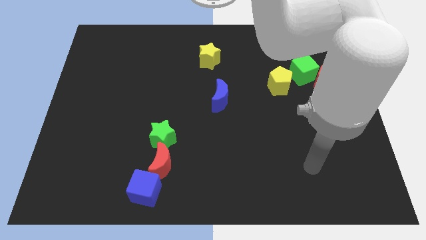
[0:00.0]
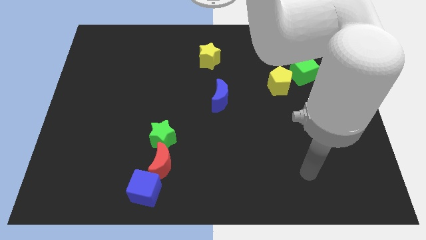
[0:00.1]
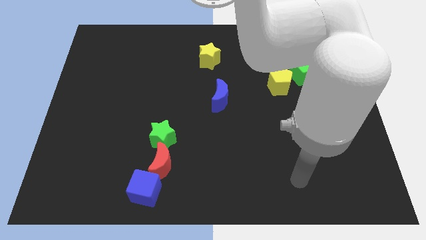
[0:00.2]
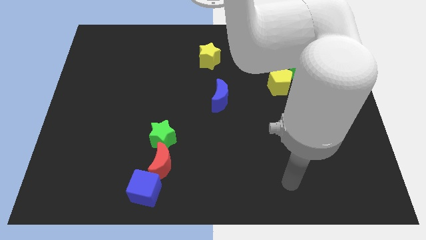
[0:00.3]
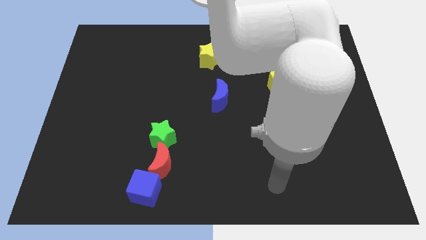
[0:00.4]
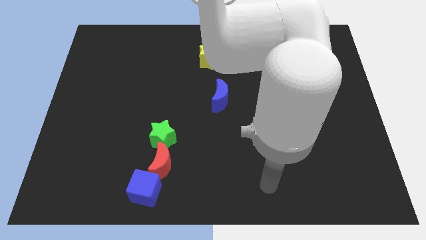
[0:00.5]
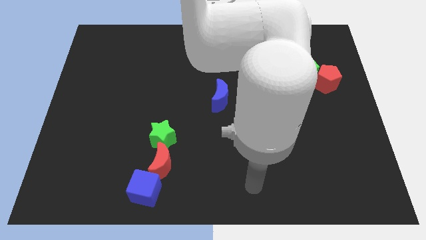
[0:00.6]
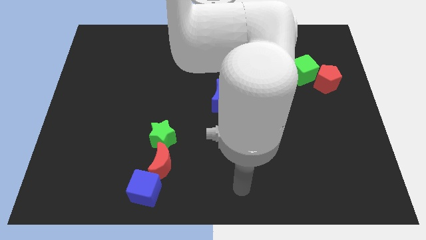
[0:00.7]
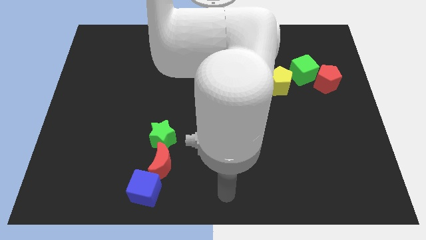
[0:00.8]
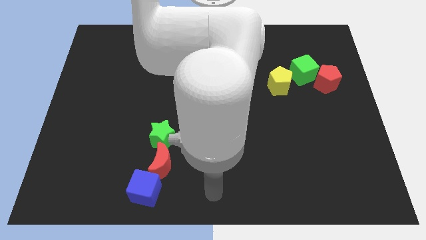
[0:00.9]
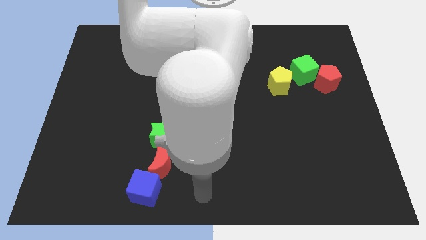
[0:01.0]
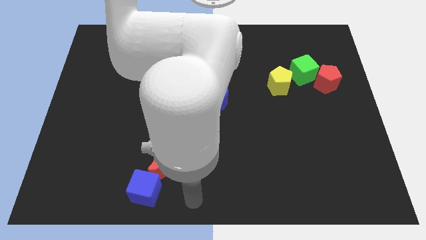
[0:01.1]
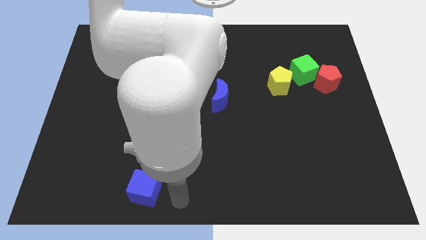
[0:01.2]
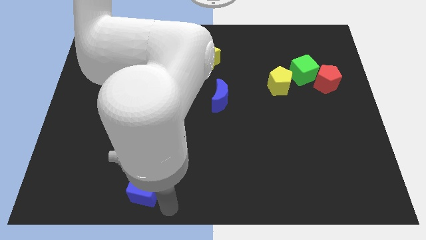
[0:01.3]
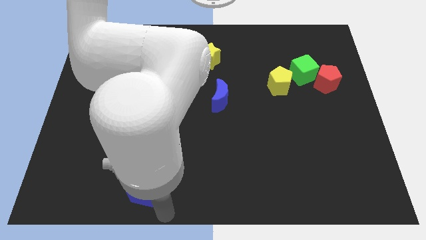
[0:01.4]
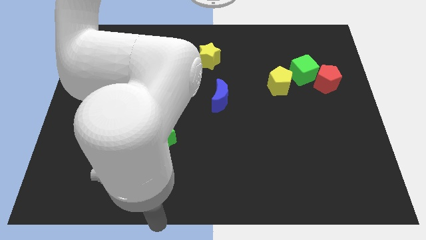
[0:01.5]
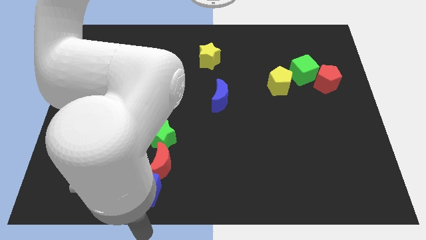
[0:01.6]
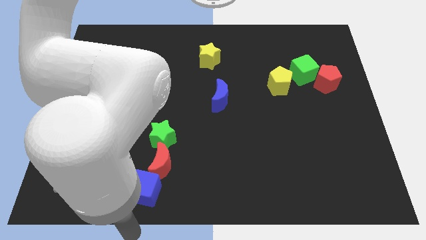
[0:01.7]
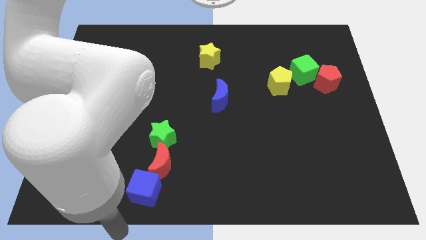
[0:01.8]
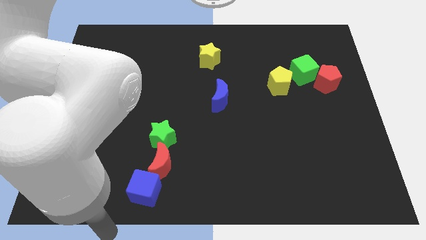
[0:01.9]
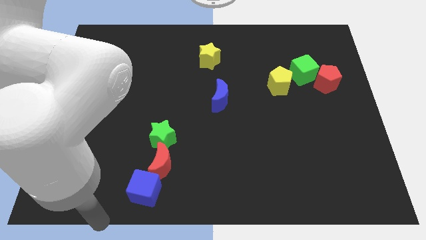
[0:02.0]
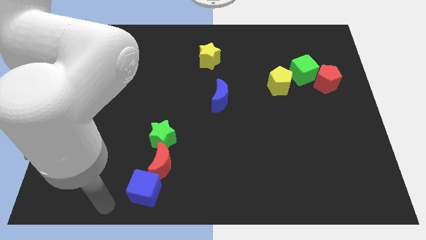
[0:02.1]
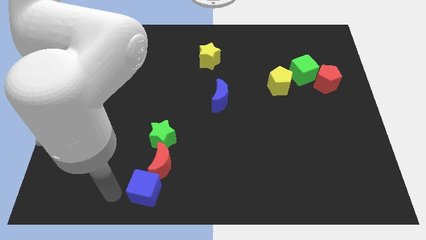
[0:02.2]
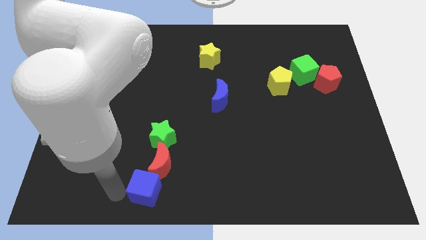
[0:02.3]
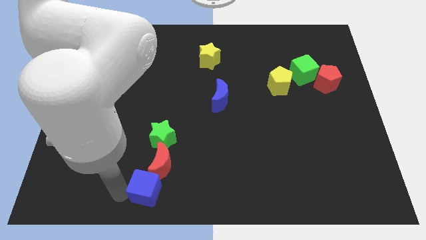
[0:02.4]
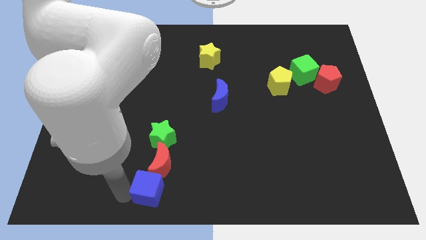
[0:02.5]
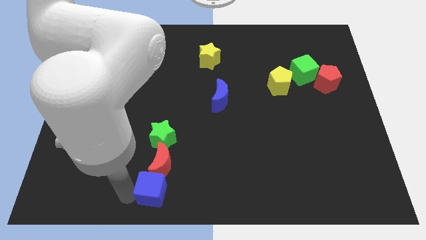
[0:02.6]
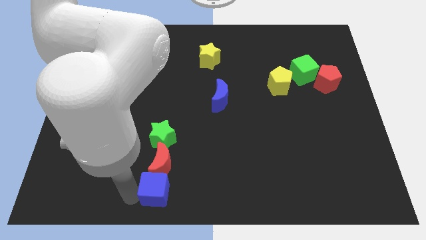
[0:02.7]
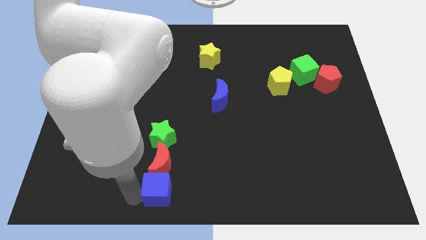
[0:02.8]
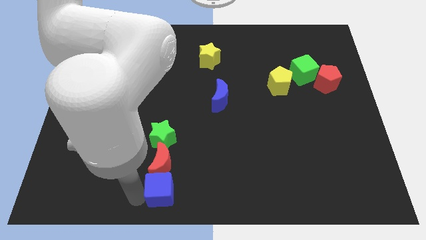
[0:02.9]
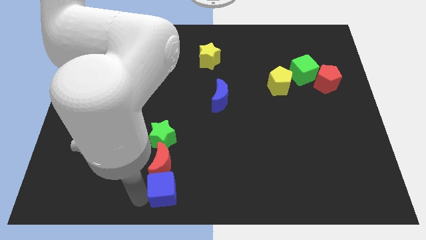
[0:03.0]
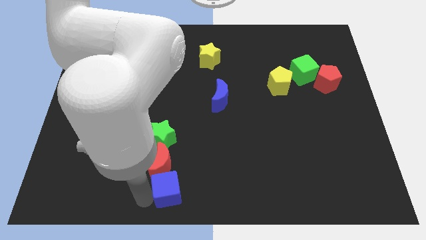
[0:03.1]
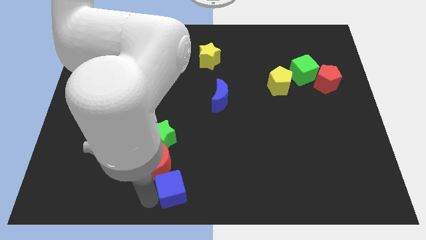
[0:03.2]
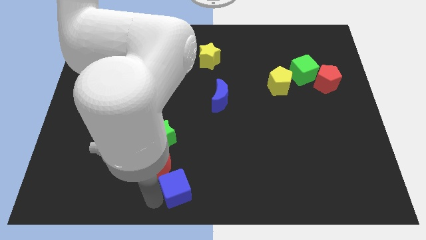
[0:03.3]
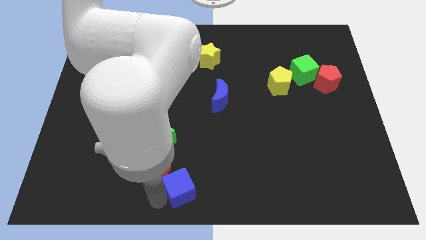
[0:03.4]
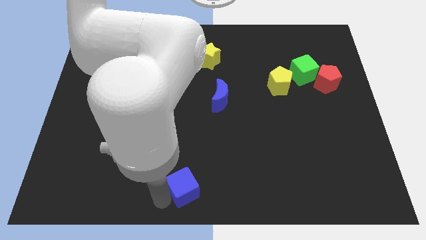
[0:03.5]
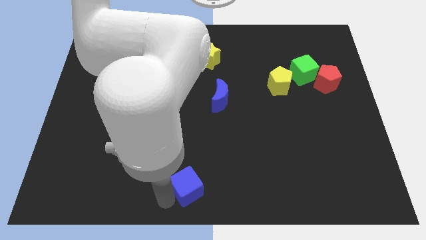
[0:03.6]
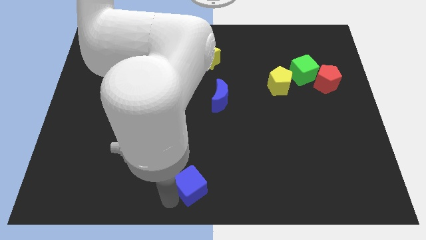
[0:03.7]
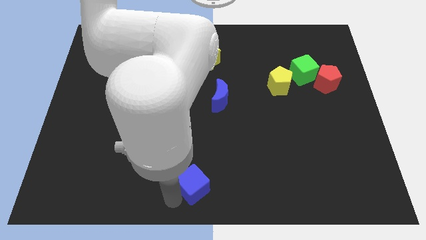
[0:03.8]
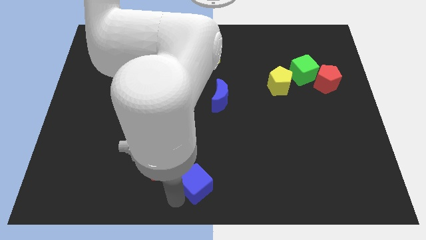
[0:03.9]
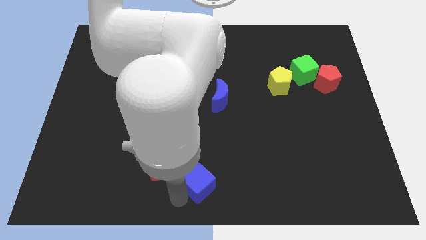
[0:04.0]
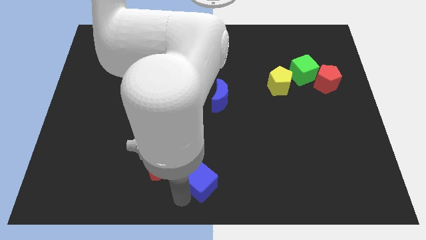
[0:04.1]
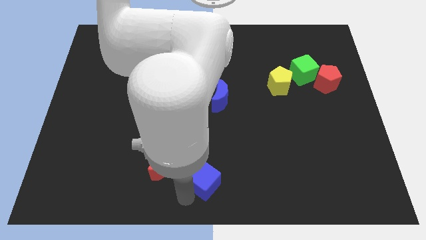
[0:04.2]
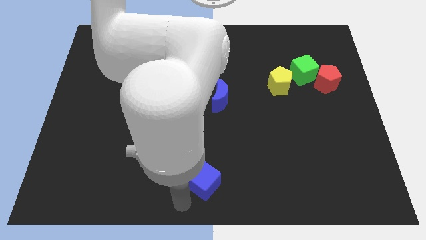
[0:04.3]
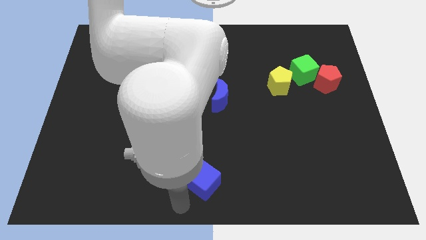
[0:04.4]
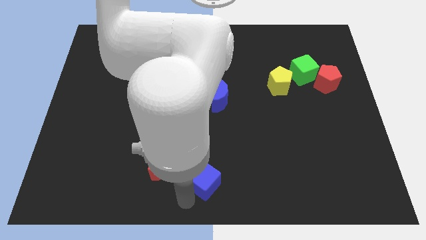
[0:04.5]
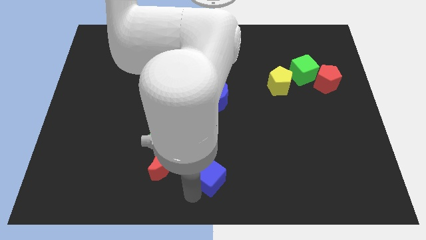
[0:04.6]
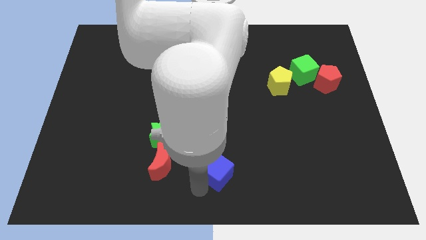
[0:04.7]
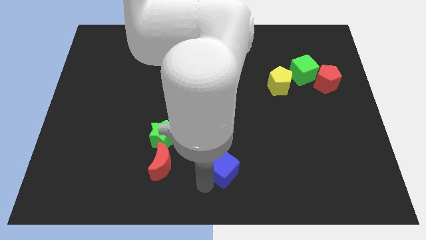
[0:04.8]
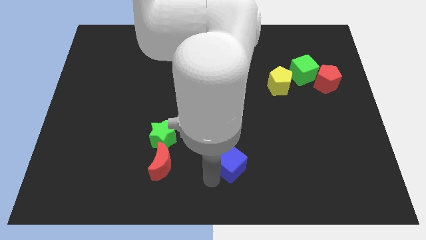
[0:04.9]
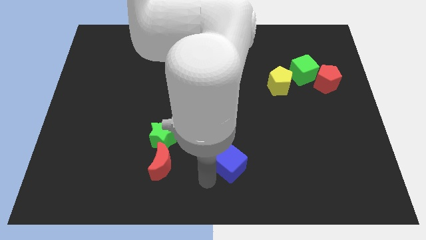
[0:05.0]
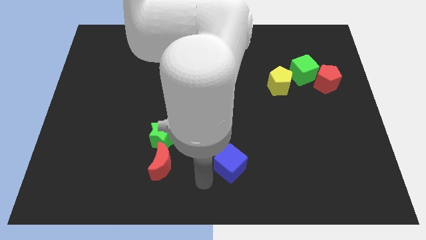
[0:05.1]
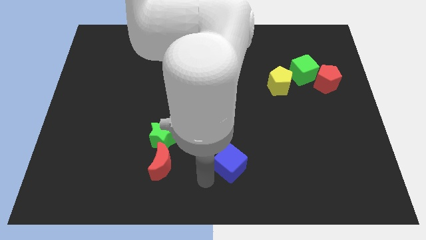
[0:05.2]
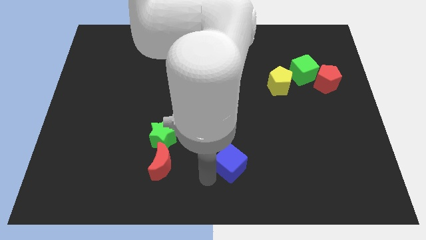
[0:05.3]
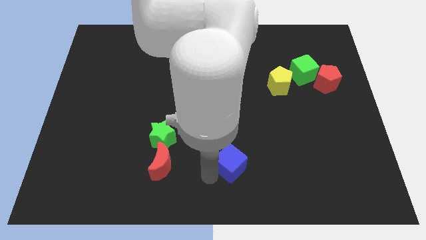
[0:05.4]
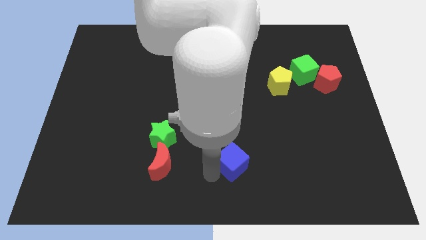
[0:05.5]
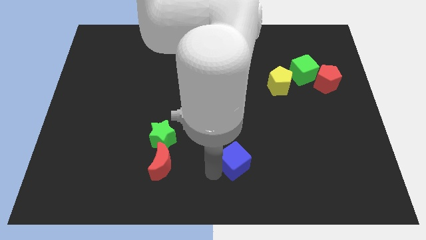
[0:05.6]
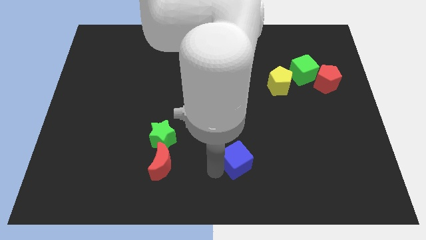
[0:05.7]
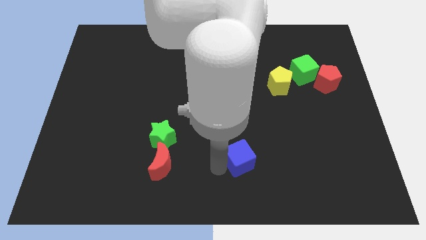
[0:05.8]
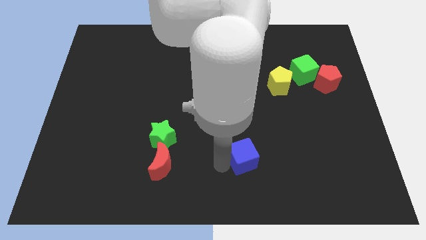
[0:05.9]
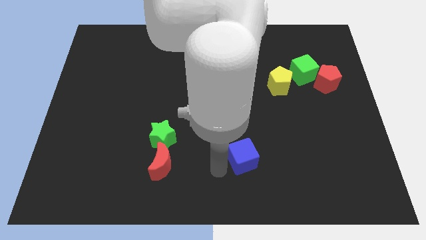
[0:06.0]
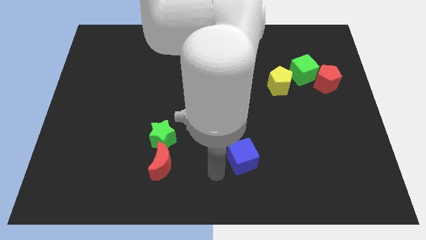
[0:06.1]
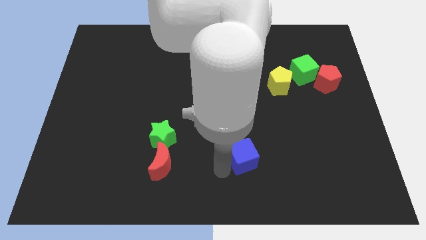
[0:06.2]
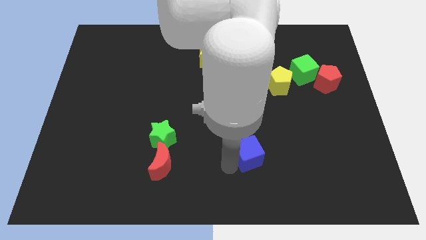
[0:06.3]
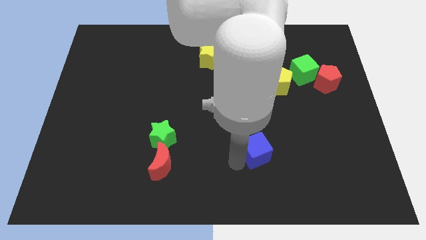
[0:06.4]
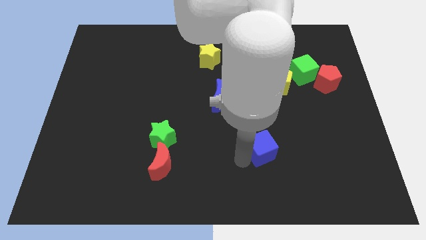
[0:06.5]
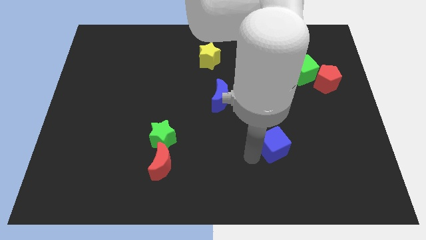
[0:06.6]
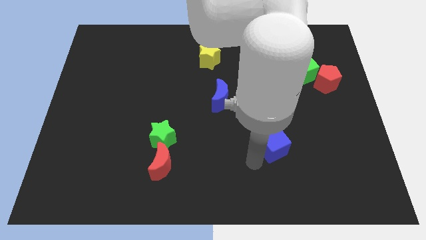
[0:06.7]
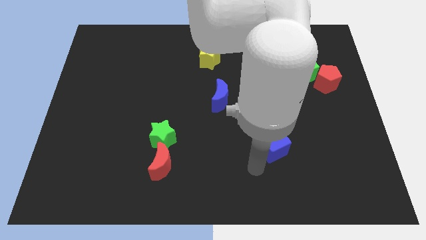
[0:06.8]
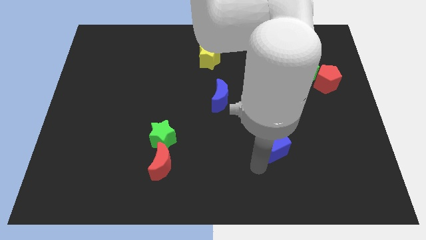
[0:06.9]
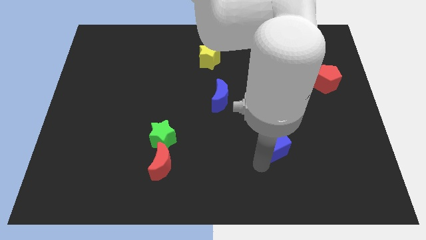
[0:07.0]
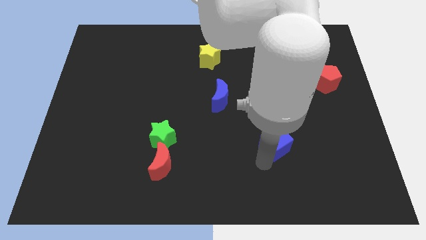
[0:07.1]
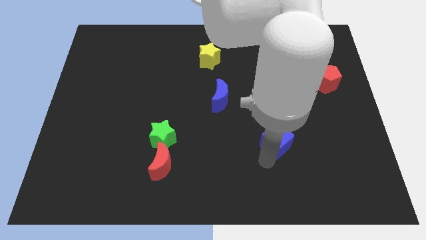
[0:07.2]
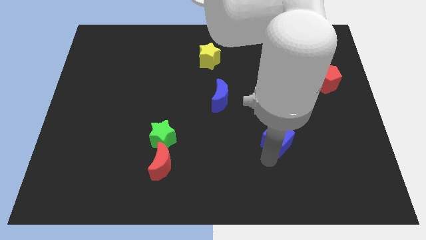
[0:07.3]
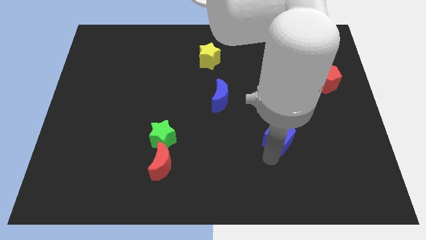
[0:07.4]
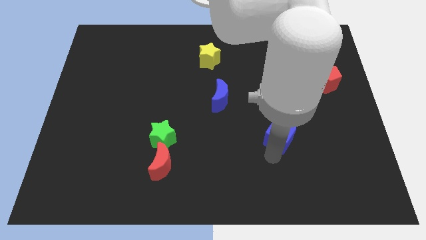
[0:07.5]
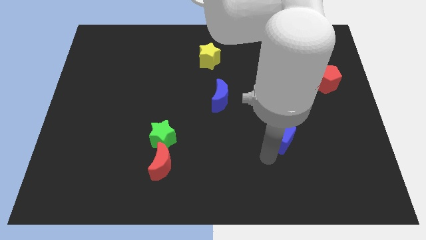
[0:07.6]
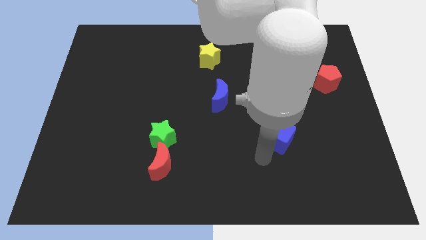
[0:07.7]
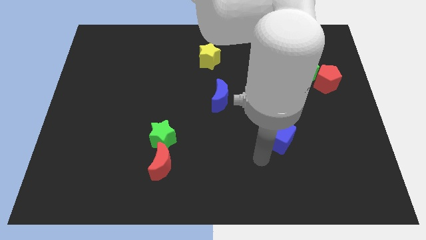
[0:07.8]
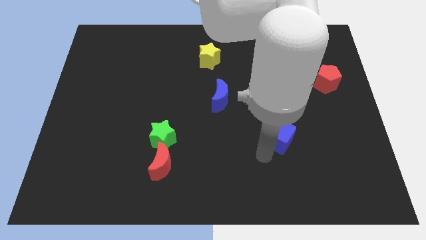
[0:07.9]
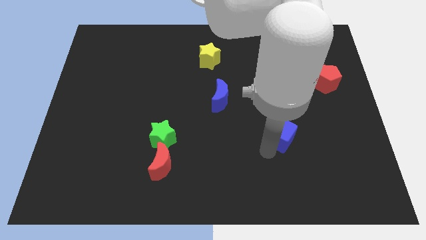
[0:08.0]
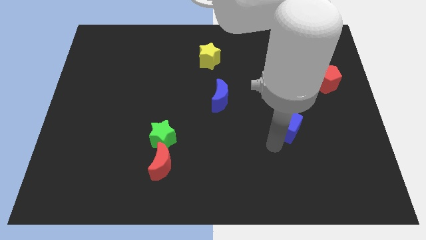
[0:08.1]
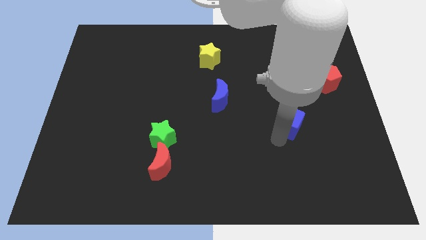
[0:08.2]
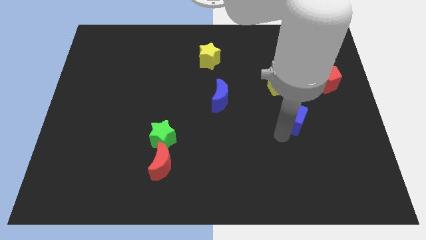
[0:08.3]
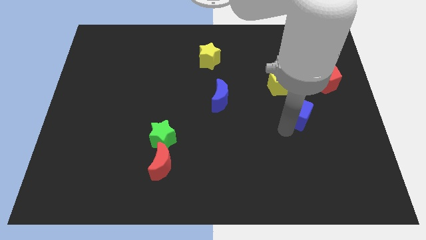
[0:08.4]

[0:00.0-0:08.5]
push the blue cube to the bottom right side of the yellow pentagon
